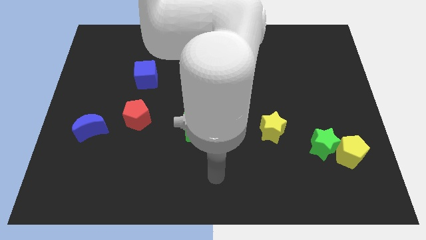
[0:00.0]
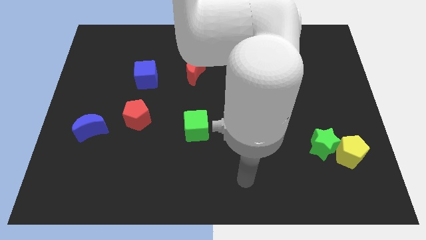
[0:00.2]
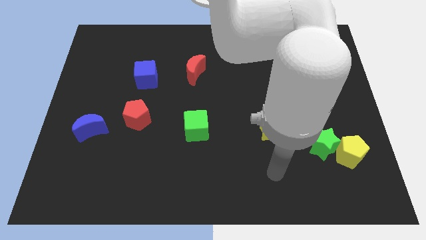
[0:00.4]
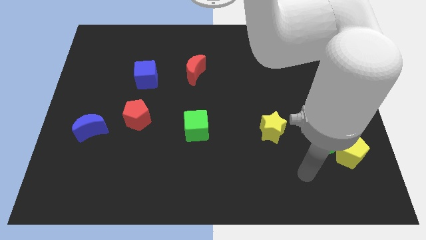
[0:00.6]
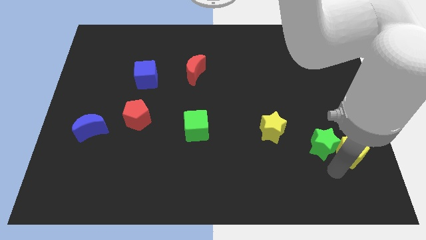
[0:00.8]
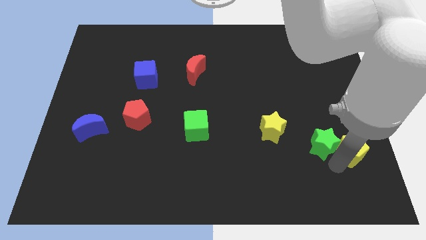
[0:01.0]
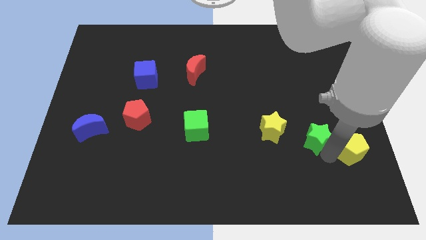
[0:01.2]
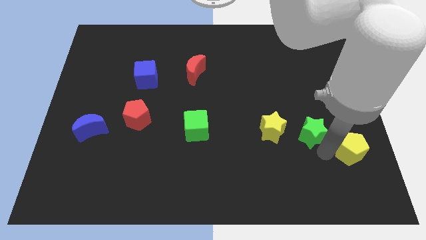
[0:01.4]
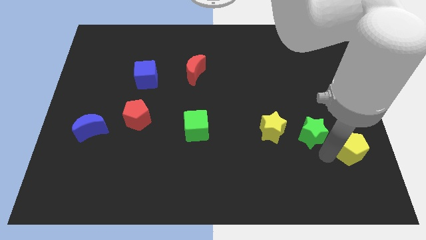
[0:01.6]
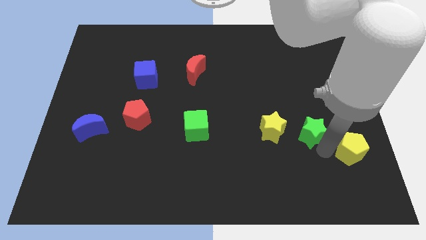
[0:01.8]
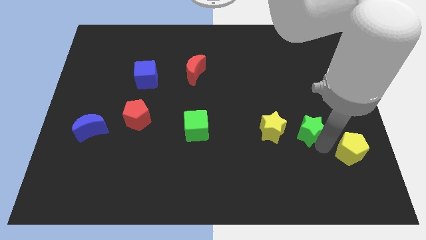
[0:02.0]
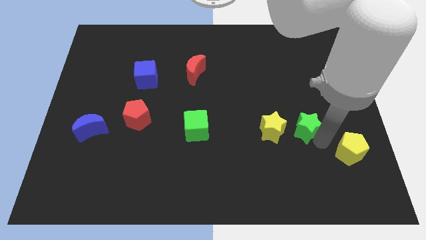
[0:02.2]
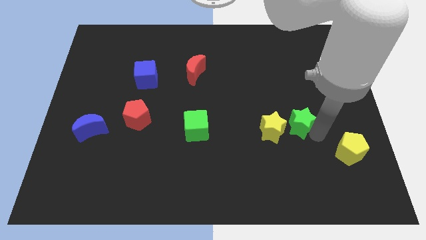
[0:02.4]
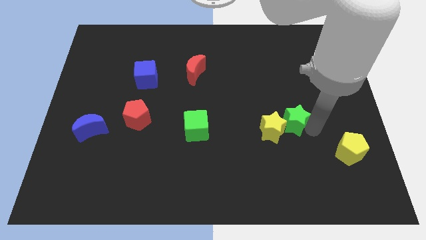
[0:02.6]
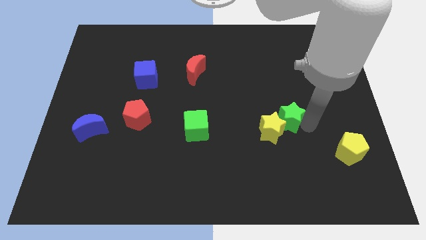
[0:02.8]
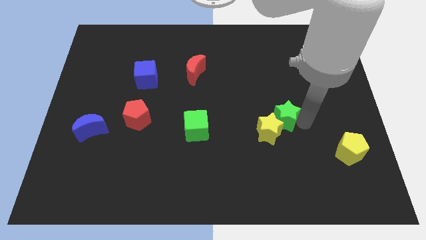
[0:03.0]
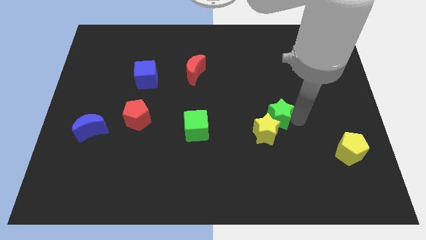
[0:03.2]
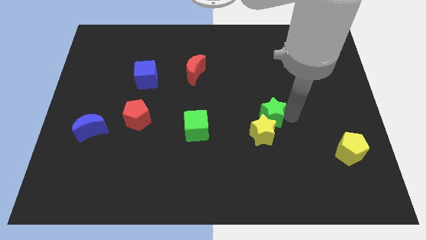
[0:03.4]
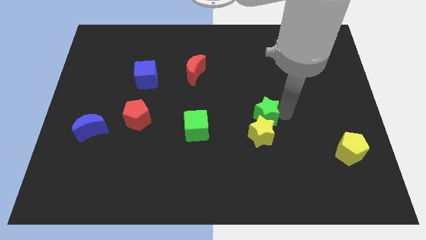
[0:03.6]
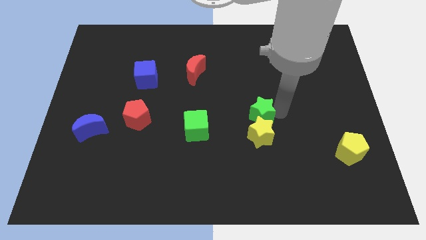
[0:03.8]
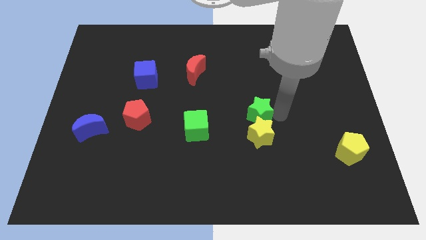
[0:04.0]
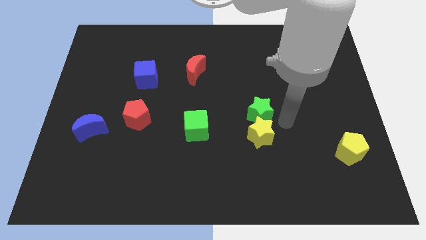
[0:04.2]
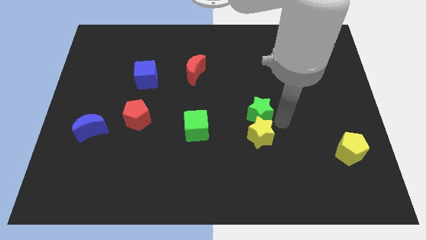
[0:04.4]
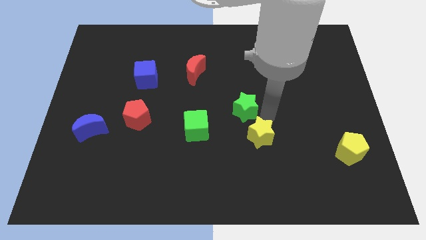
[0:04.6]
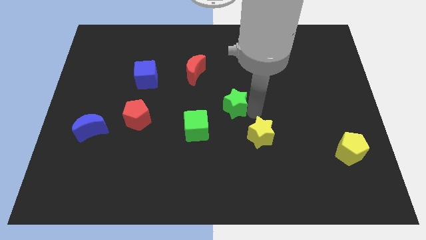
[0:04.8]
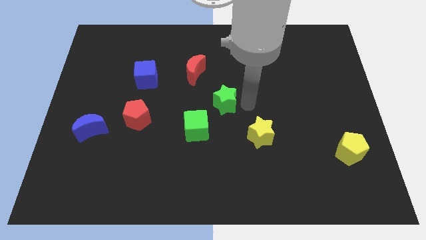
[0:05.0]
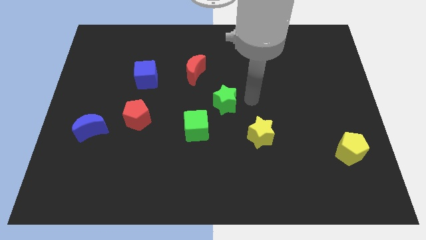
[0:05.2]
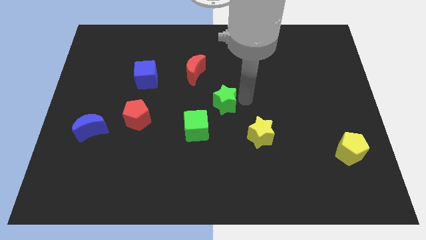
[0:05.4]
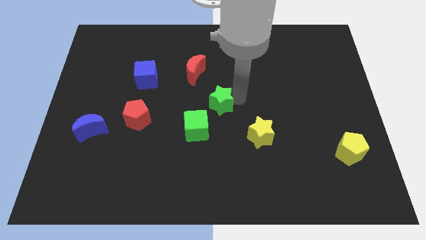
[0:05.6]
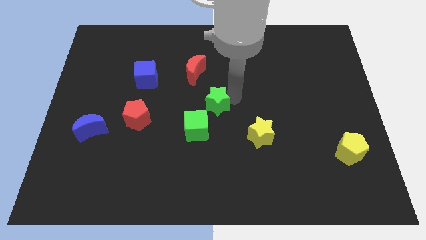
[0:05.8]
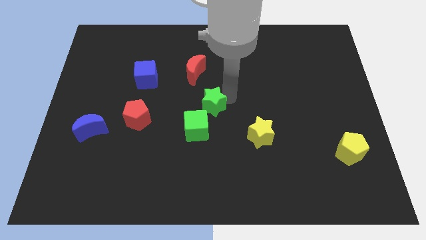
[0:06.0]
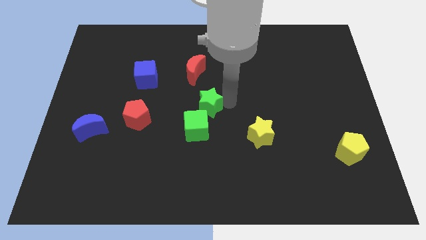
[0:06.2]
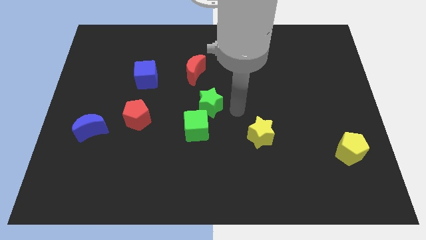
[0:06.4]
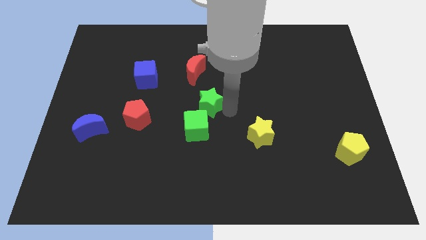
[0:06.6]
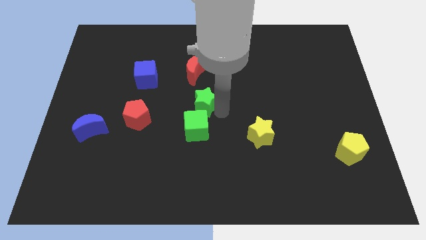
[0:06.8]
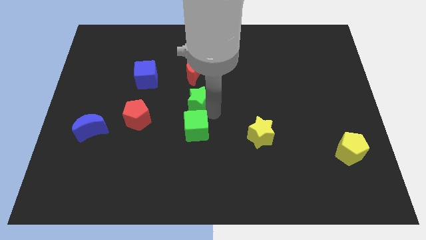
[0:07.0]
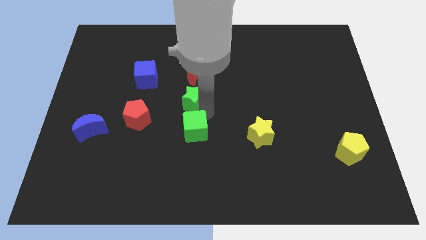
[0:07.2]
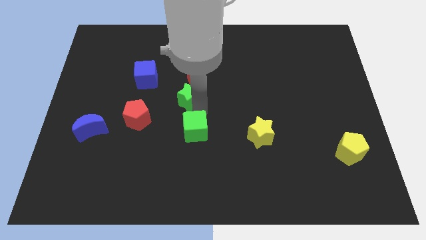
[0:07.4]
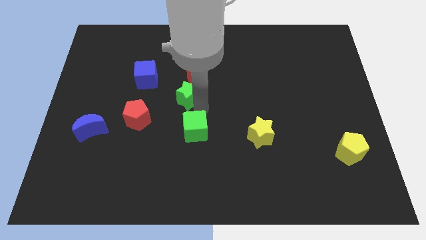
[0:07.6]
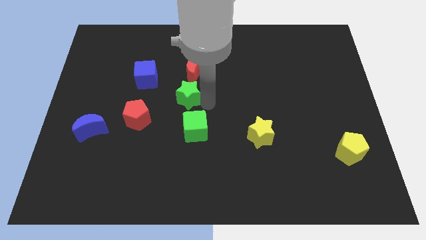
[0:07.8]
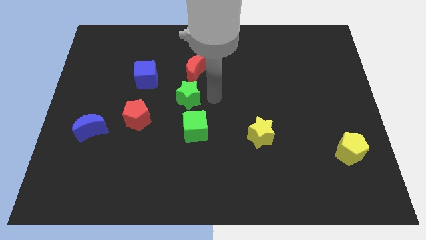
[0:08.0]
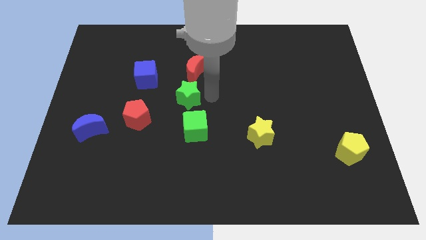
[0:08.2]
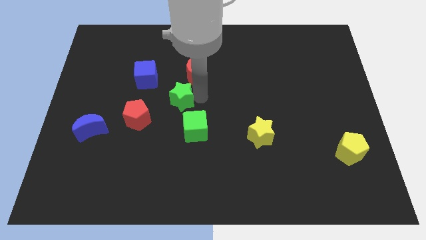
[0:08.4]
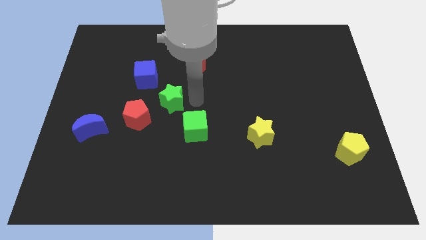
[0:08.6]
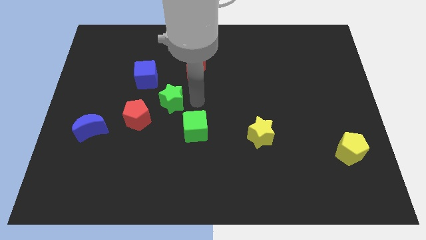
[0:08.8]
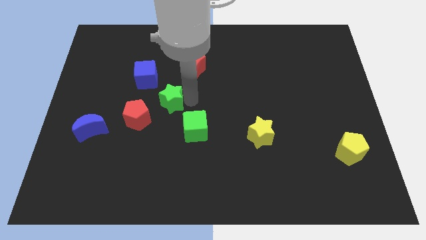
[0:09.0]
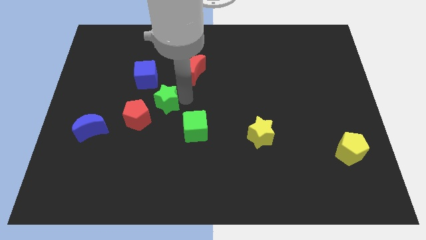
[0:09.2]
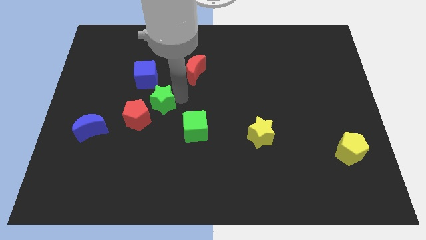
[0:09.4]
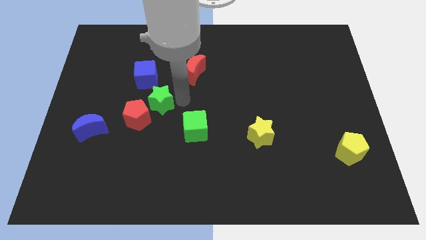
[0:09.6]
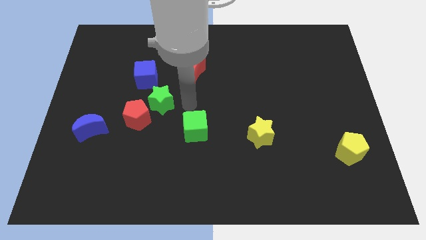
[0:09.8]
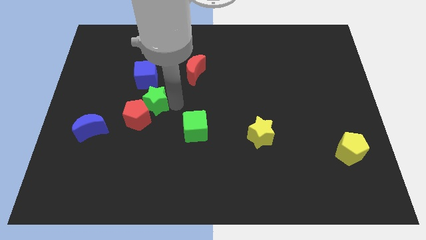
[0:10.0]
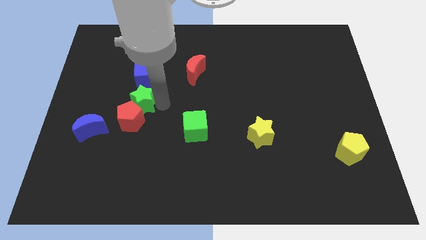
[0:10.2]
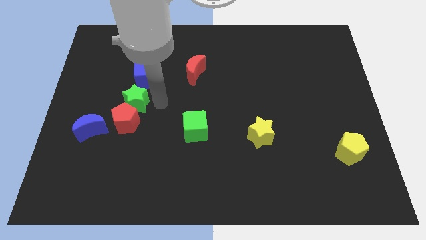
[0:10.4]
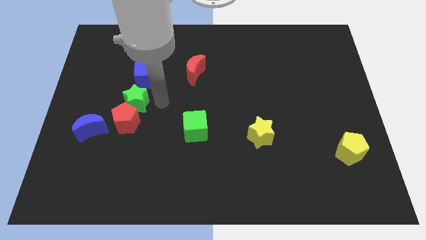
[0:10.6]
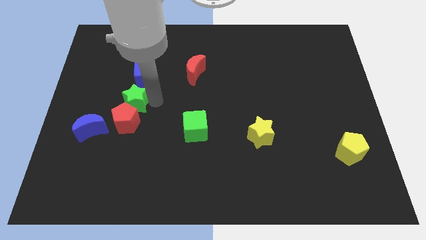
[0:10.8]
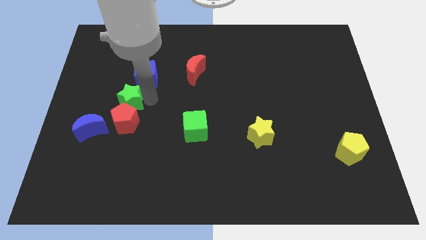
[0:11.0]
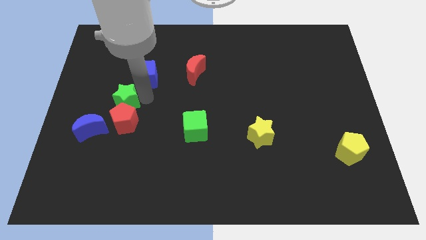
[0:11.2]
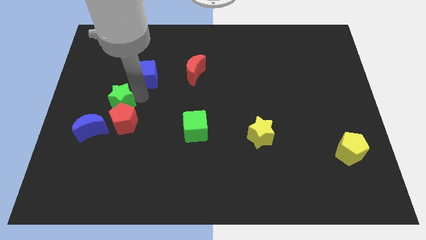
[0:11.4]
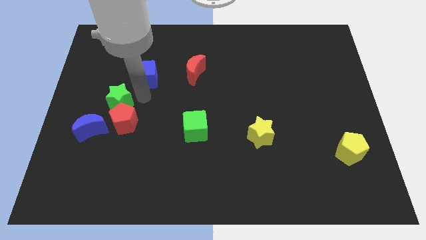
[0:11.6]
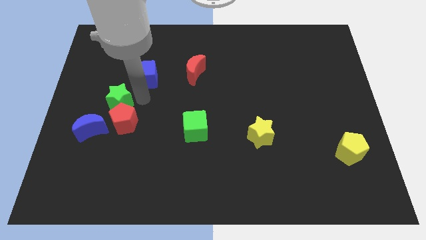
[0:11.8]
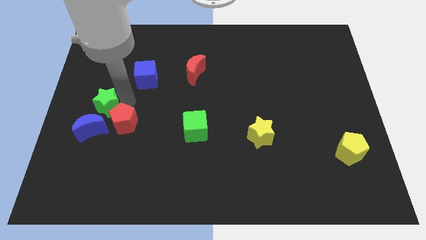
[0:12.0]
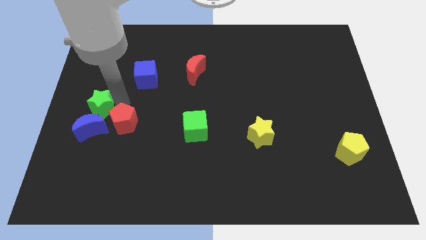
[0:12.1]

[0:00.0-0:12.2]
slide the green star to the center left
